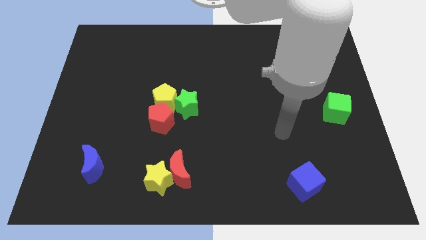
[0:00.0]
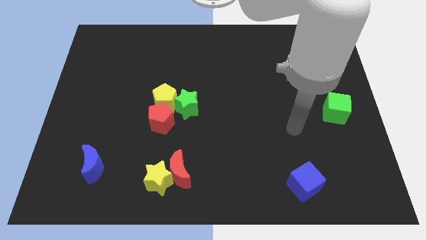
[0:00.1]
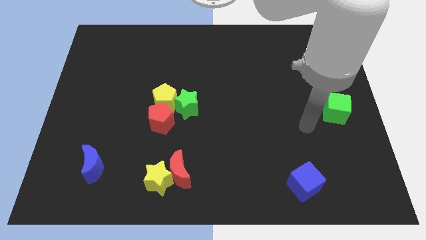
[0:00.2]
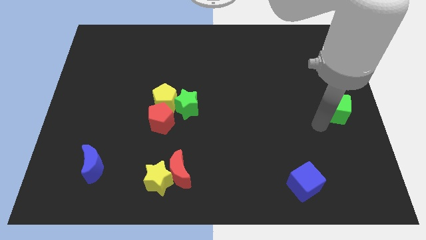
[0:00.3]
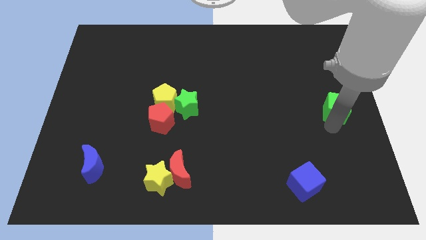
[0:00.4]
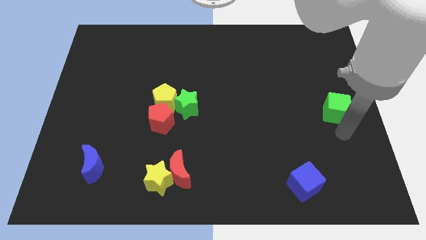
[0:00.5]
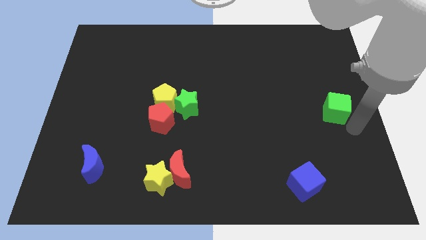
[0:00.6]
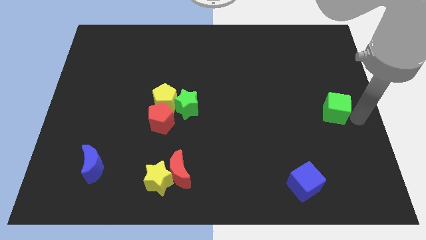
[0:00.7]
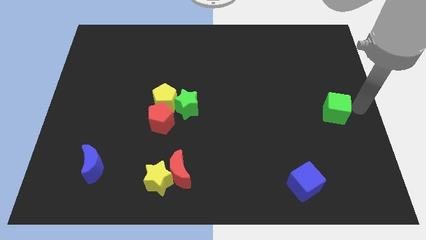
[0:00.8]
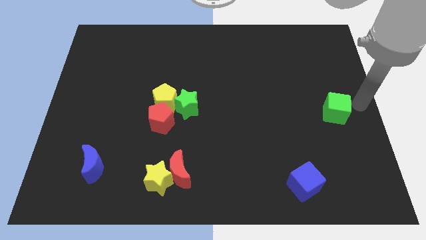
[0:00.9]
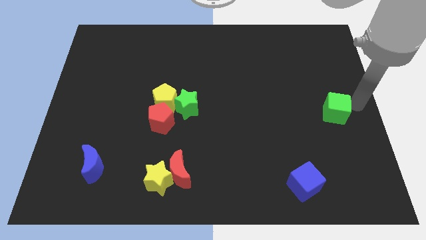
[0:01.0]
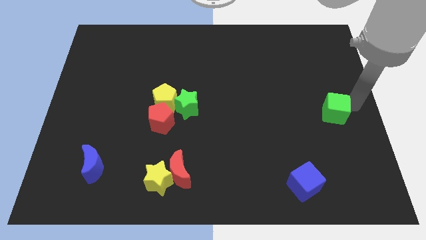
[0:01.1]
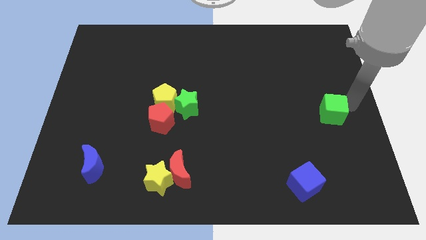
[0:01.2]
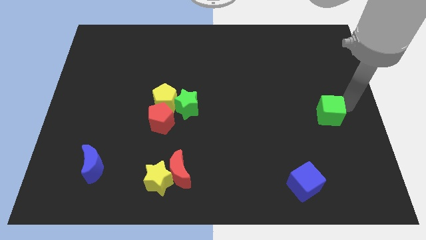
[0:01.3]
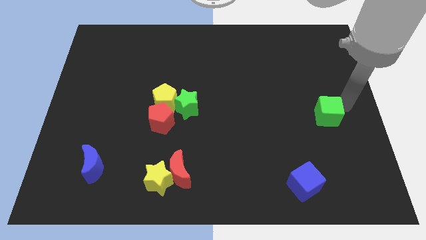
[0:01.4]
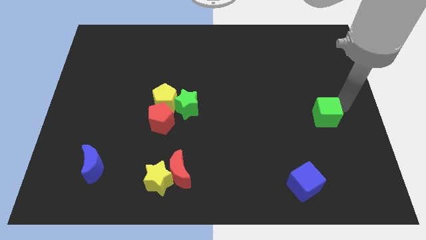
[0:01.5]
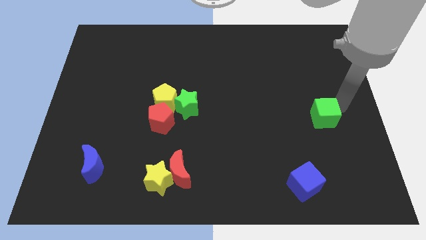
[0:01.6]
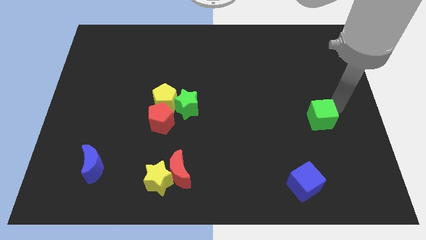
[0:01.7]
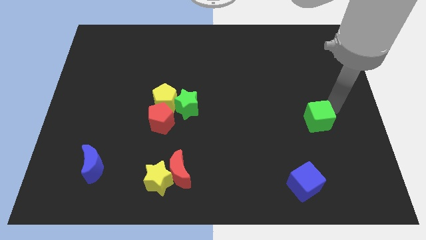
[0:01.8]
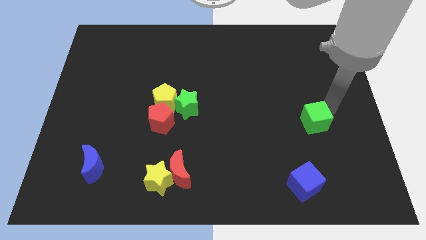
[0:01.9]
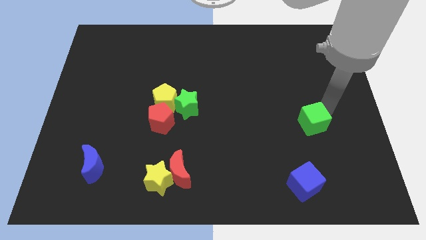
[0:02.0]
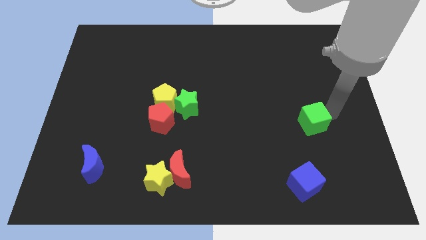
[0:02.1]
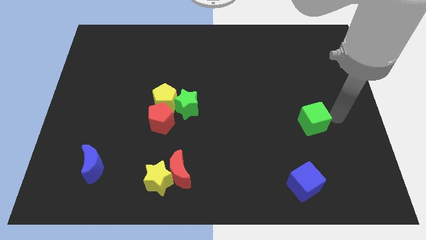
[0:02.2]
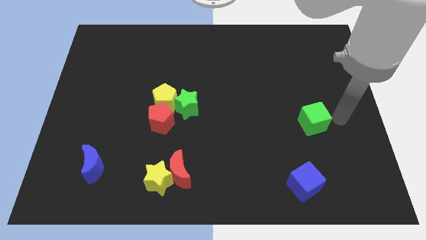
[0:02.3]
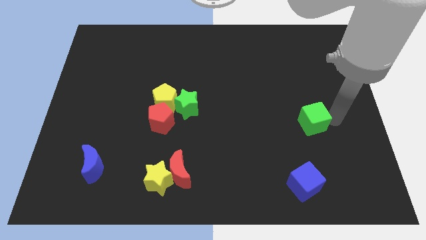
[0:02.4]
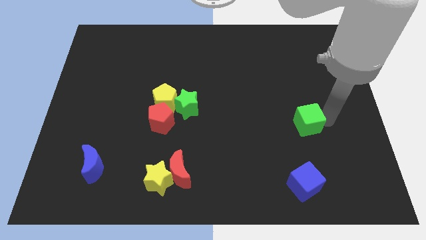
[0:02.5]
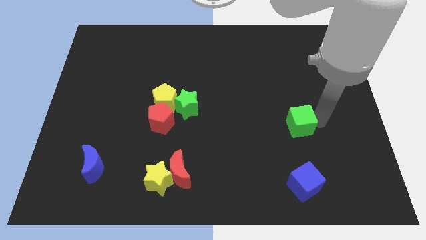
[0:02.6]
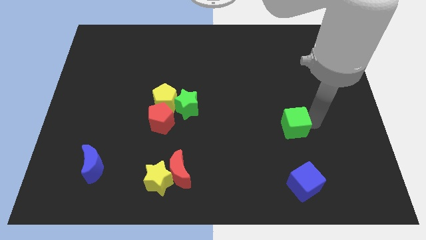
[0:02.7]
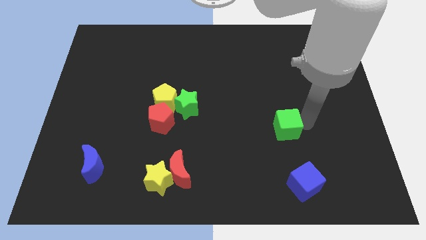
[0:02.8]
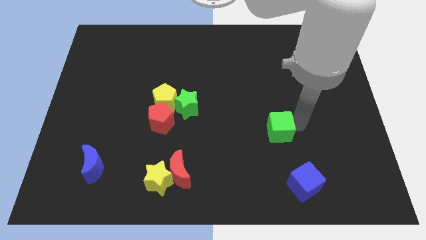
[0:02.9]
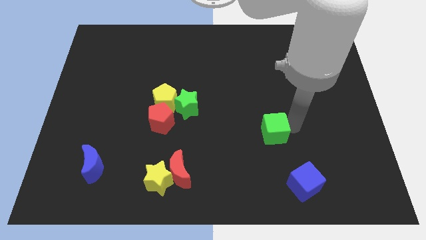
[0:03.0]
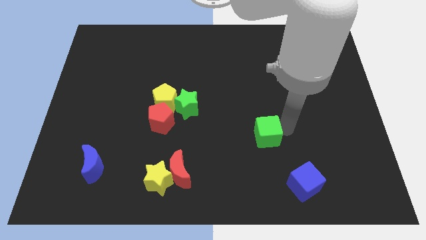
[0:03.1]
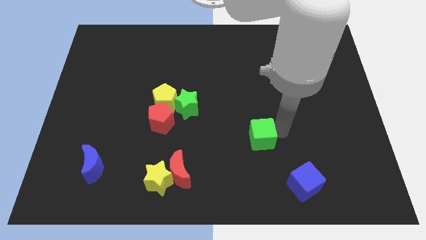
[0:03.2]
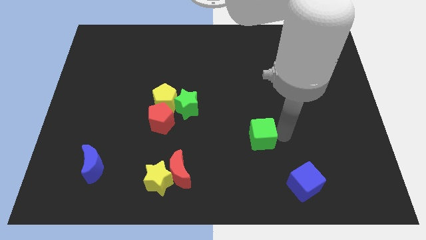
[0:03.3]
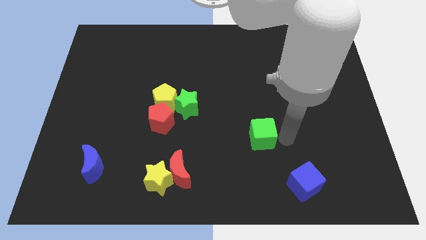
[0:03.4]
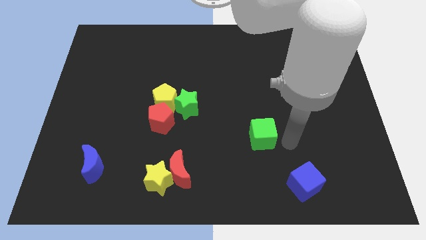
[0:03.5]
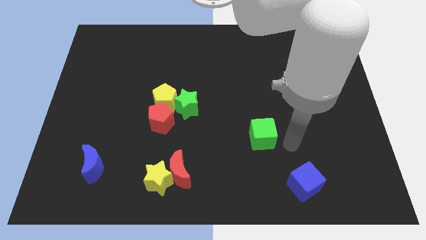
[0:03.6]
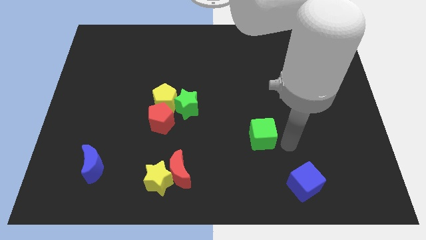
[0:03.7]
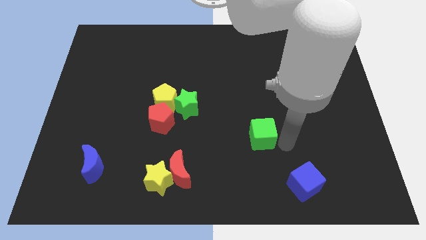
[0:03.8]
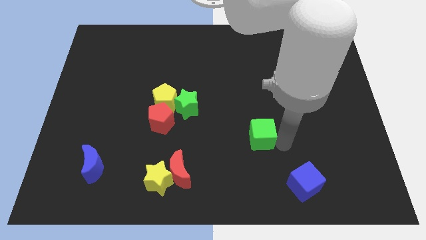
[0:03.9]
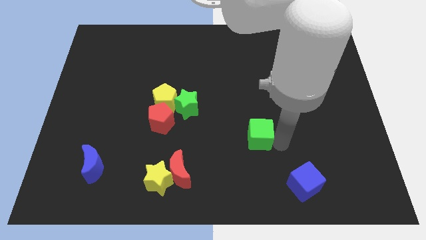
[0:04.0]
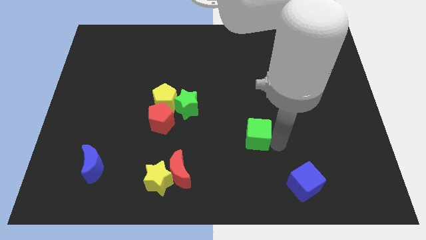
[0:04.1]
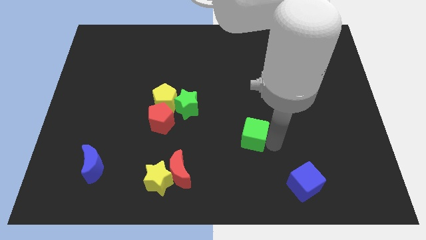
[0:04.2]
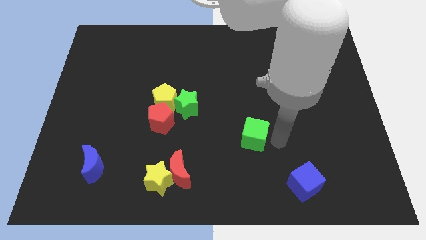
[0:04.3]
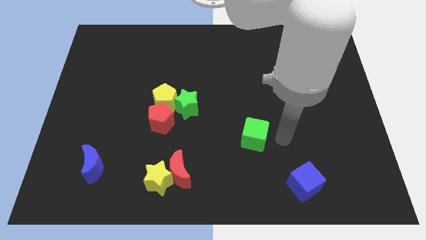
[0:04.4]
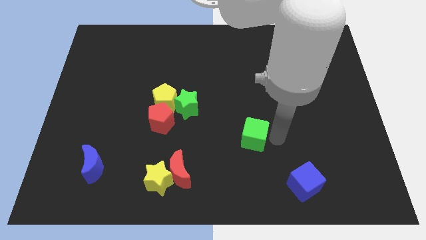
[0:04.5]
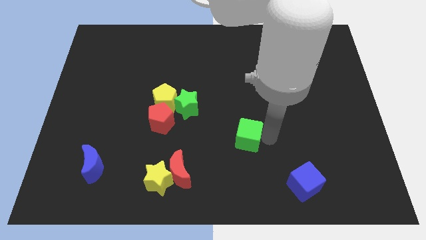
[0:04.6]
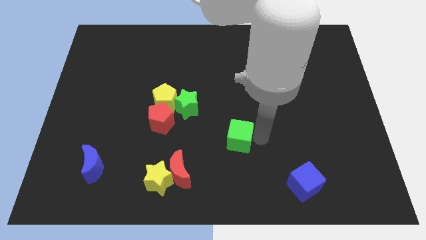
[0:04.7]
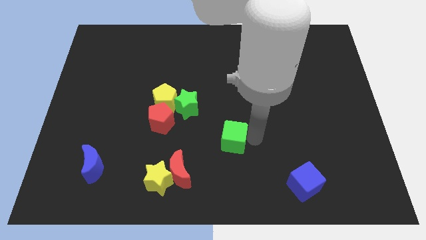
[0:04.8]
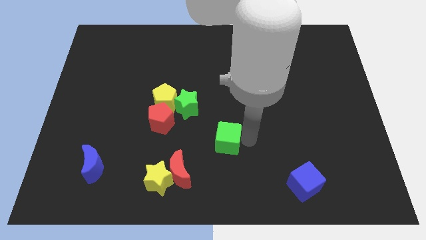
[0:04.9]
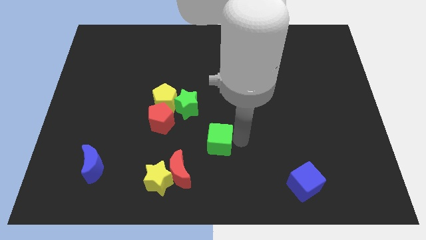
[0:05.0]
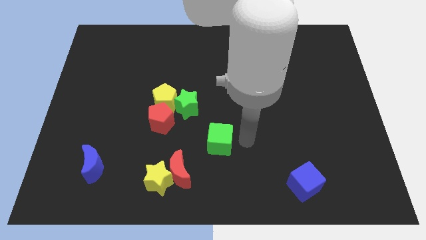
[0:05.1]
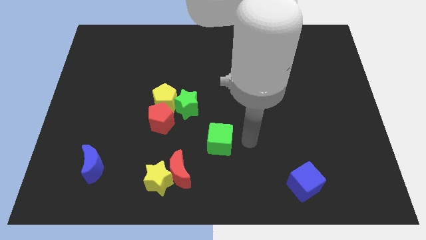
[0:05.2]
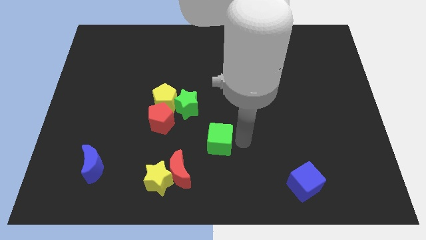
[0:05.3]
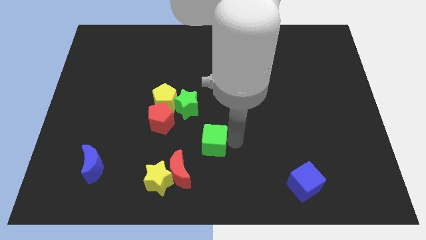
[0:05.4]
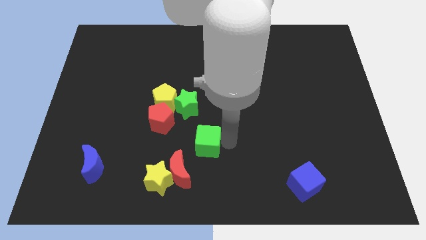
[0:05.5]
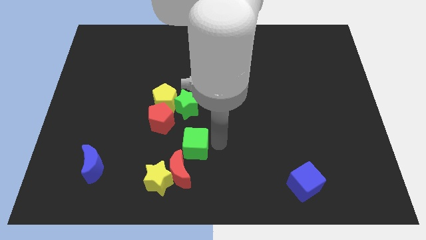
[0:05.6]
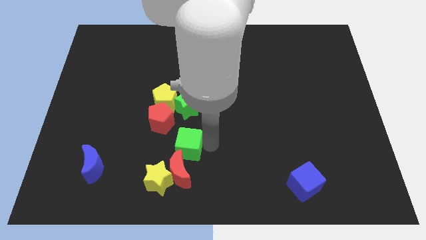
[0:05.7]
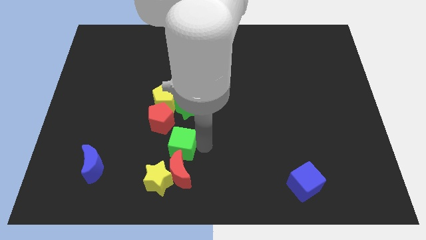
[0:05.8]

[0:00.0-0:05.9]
move the green cube diagonally up and to the left of the red moon

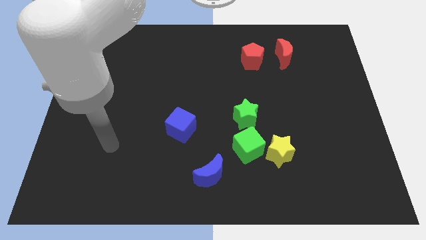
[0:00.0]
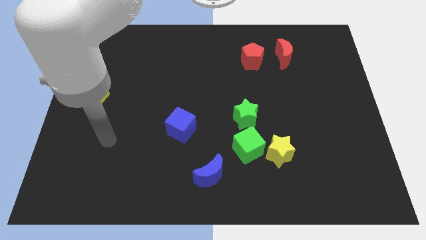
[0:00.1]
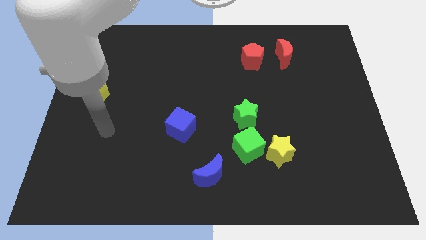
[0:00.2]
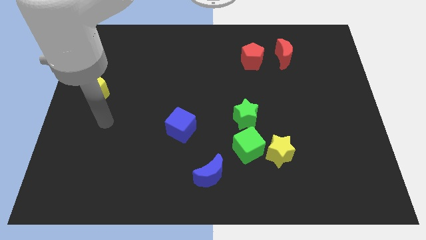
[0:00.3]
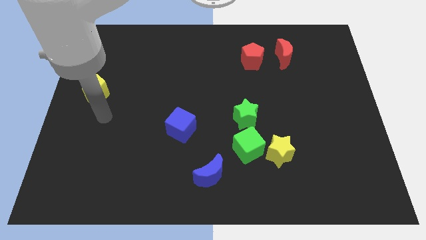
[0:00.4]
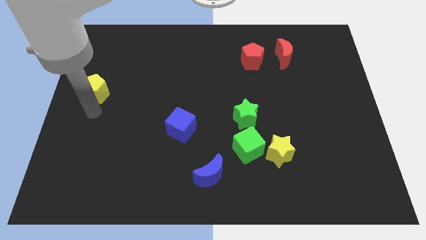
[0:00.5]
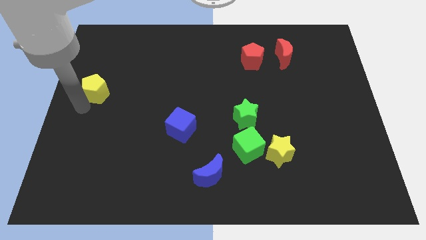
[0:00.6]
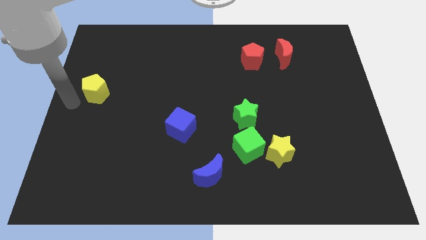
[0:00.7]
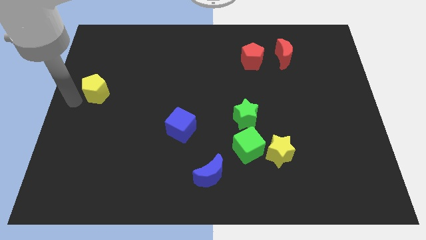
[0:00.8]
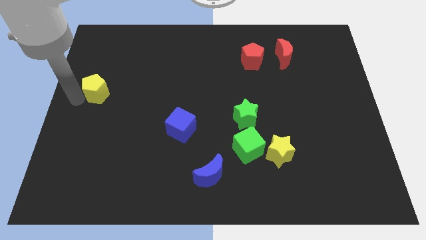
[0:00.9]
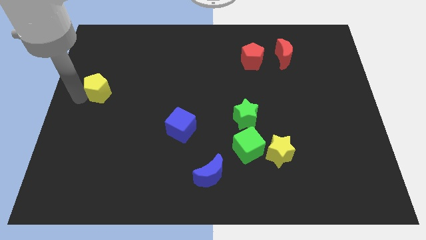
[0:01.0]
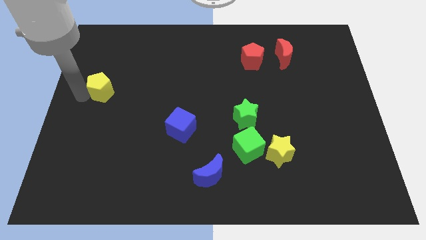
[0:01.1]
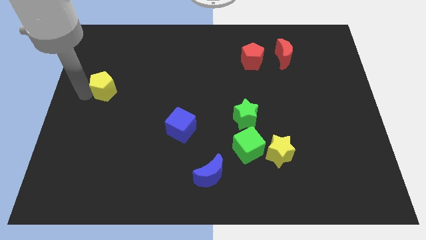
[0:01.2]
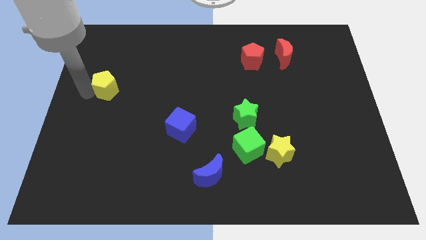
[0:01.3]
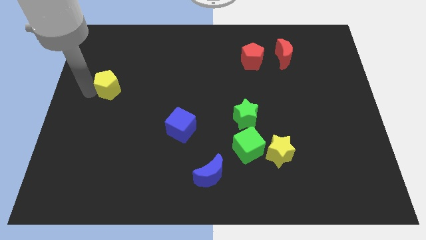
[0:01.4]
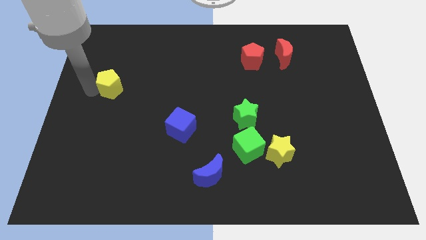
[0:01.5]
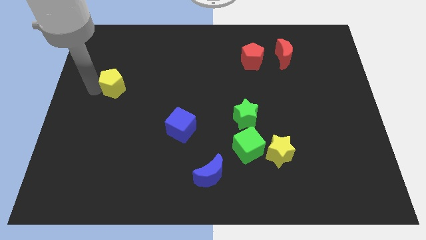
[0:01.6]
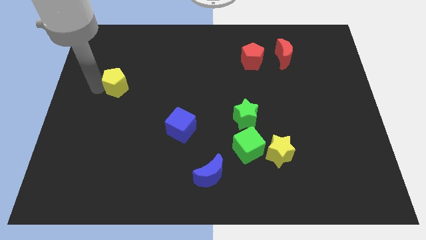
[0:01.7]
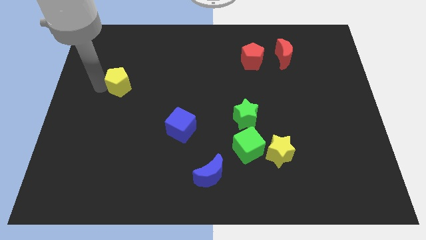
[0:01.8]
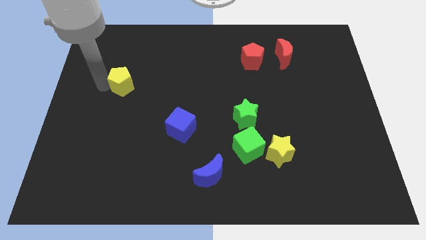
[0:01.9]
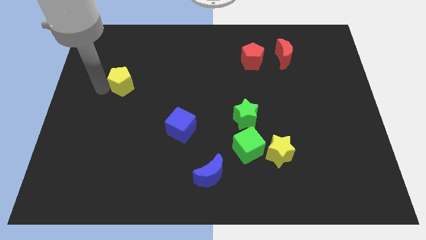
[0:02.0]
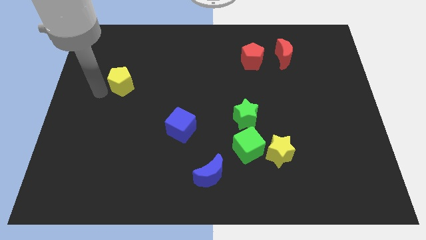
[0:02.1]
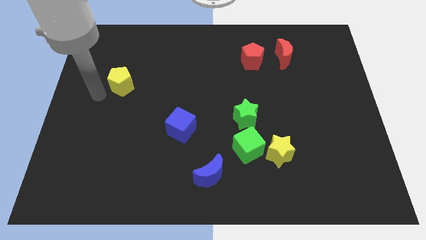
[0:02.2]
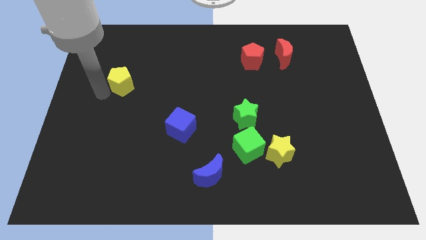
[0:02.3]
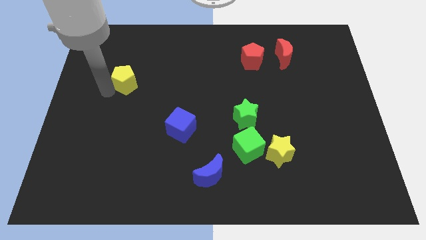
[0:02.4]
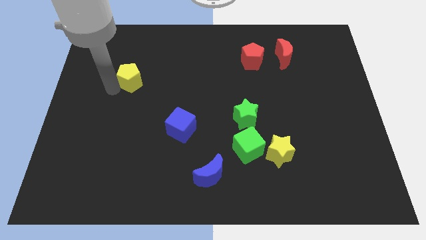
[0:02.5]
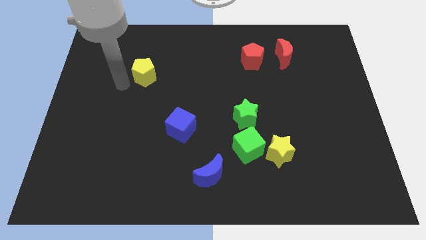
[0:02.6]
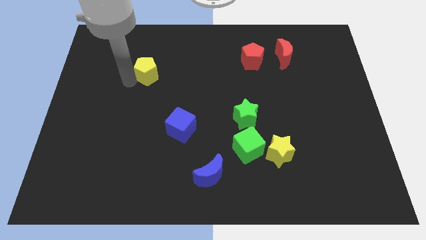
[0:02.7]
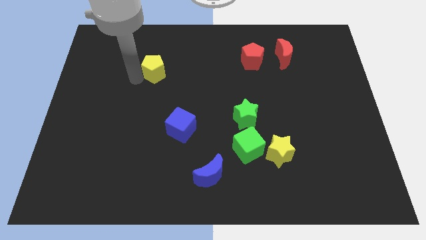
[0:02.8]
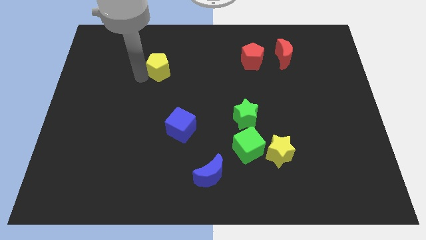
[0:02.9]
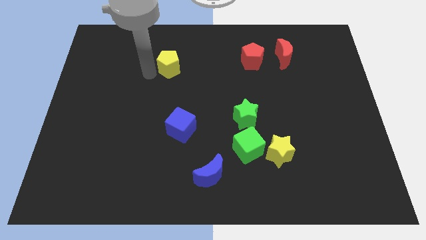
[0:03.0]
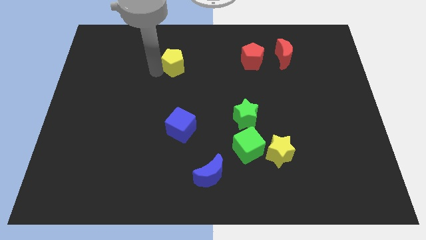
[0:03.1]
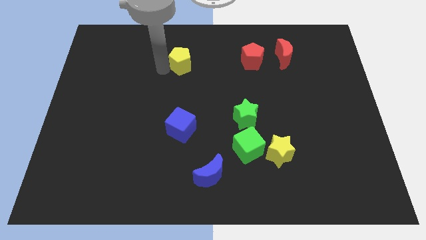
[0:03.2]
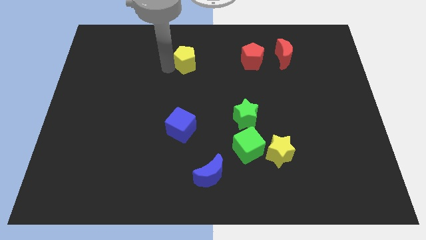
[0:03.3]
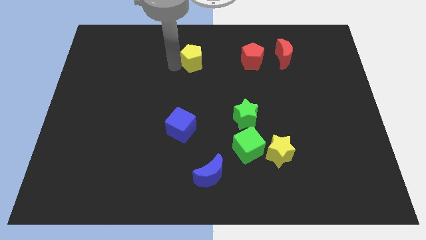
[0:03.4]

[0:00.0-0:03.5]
push the yellow pentagon to the left of the red pentagon
